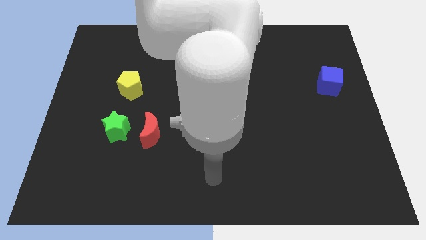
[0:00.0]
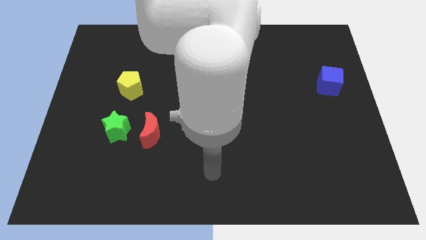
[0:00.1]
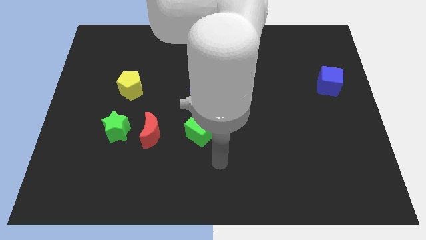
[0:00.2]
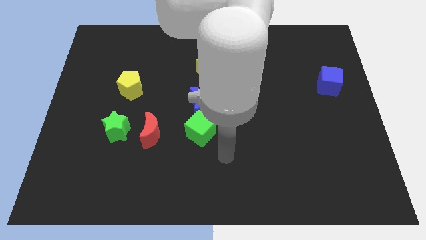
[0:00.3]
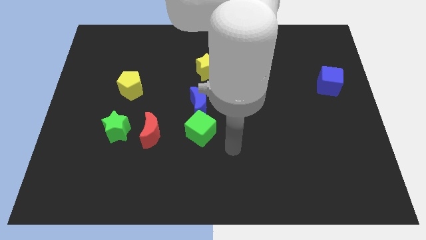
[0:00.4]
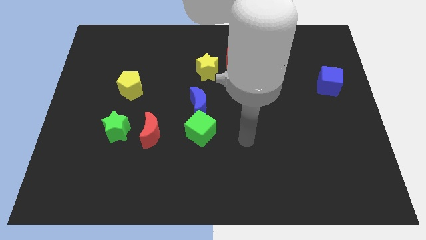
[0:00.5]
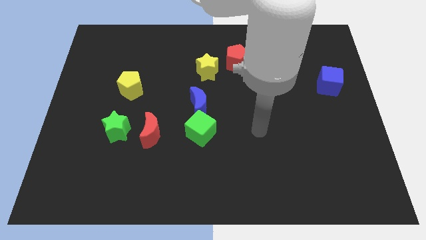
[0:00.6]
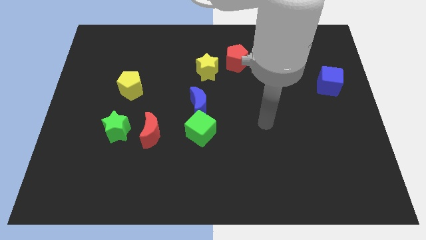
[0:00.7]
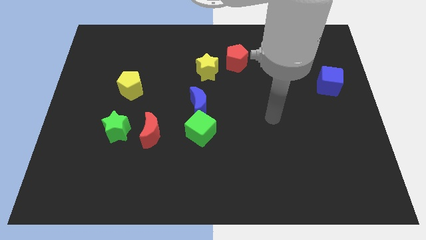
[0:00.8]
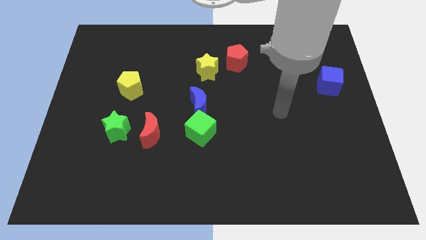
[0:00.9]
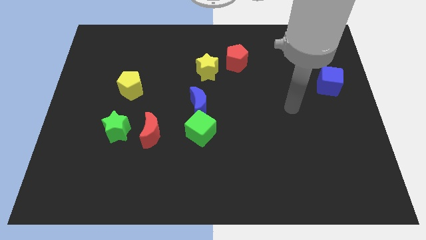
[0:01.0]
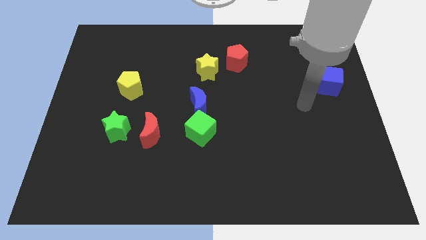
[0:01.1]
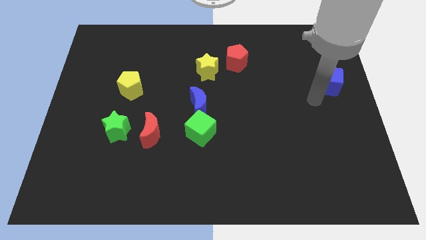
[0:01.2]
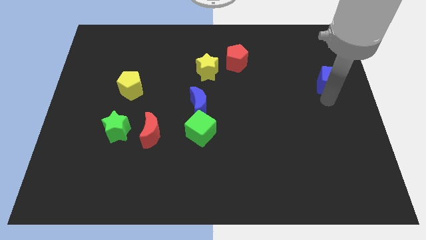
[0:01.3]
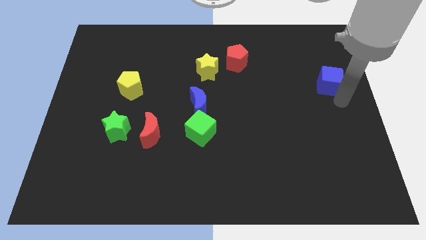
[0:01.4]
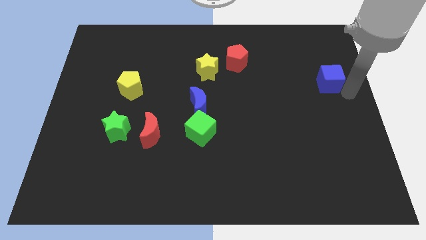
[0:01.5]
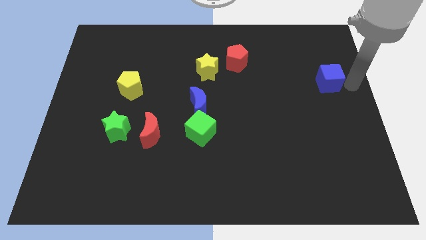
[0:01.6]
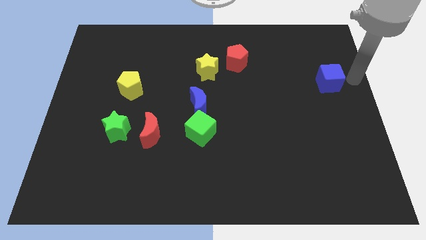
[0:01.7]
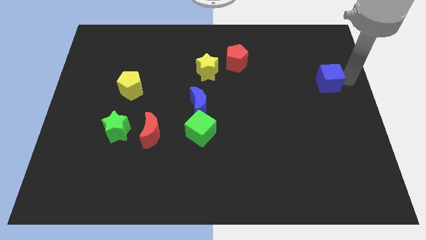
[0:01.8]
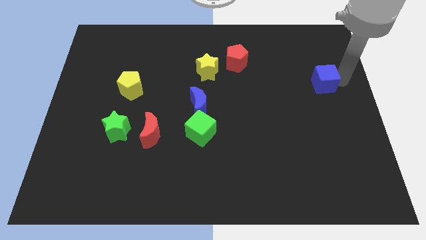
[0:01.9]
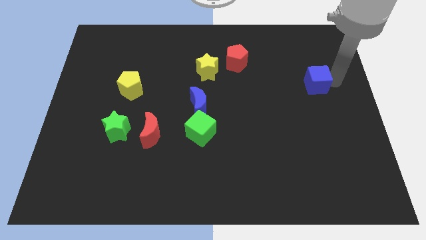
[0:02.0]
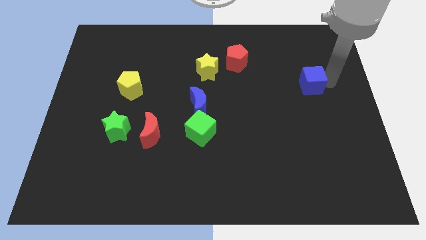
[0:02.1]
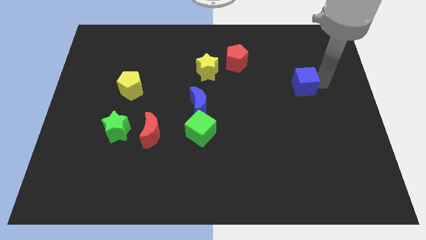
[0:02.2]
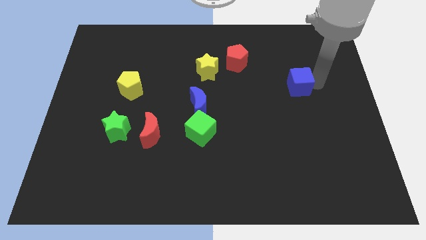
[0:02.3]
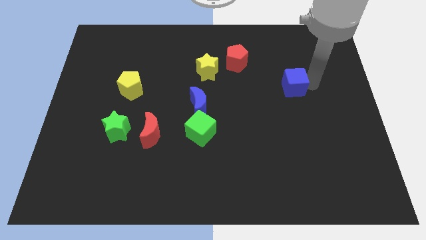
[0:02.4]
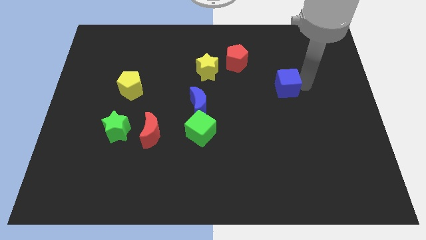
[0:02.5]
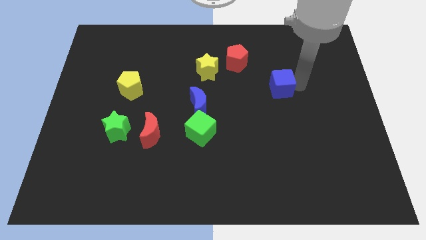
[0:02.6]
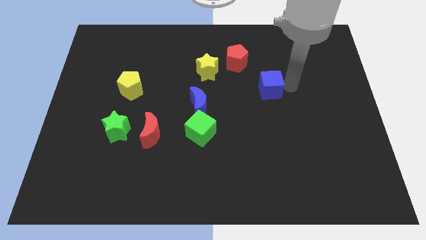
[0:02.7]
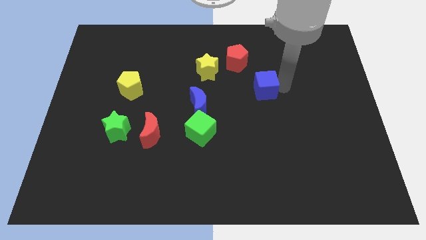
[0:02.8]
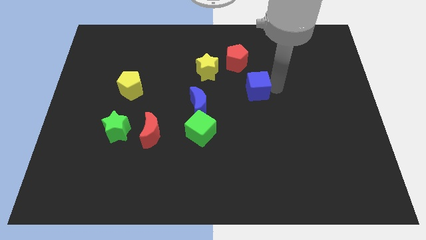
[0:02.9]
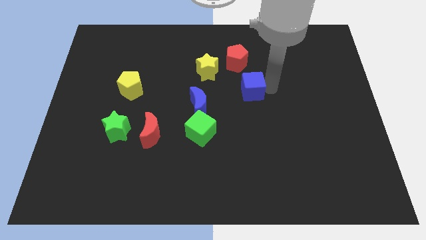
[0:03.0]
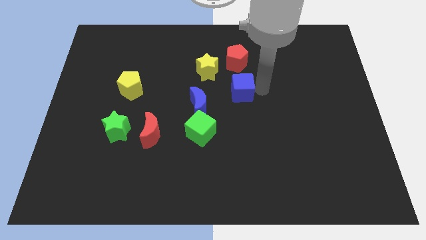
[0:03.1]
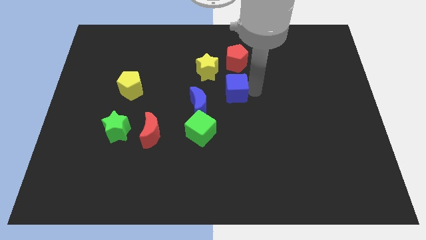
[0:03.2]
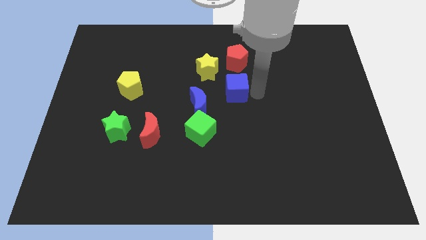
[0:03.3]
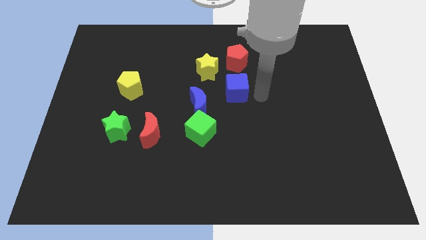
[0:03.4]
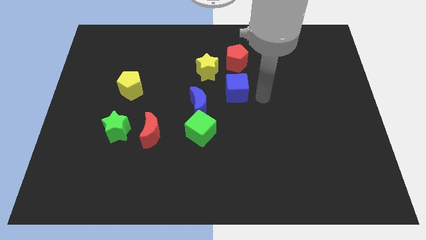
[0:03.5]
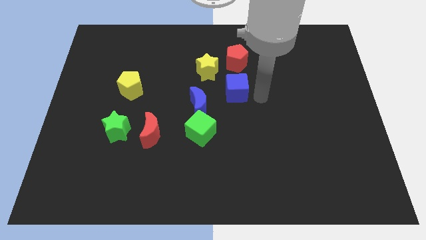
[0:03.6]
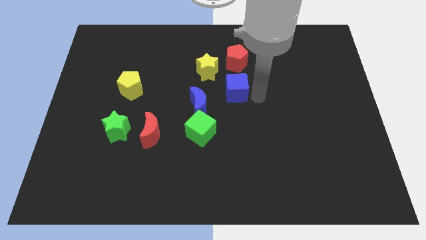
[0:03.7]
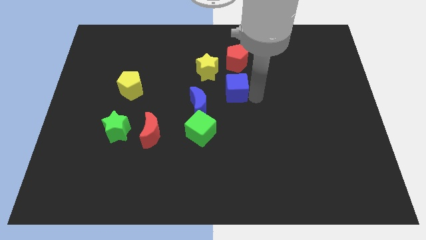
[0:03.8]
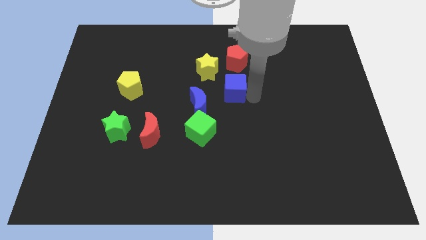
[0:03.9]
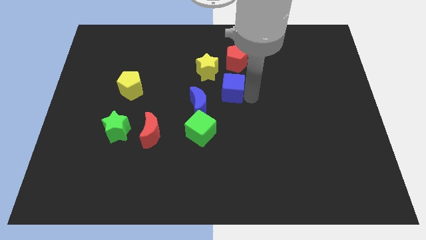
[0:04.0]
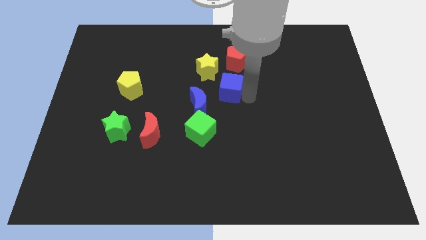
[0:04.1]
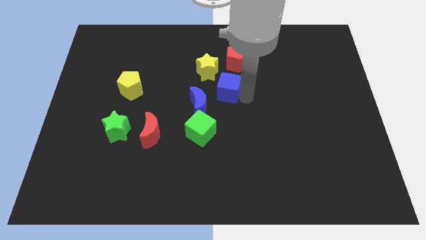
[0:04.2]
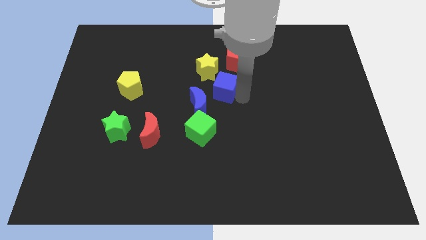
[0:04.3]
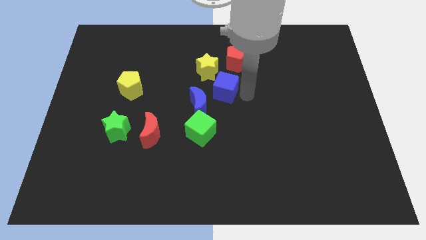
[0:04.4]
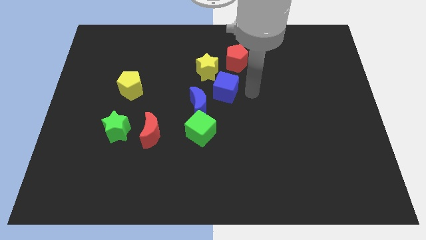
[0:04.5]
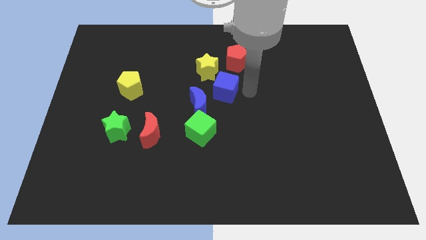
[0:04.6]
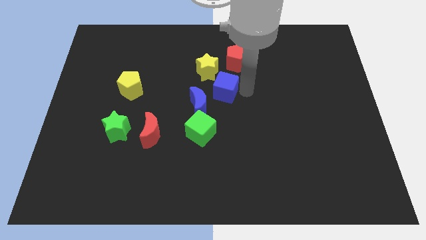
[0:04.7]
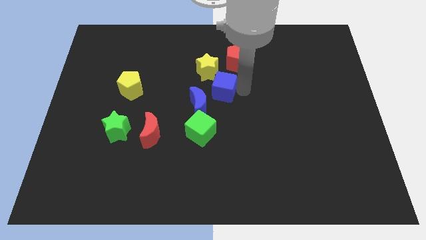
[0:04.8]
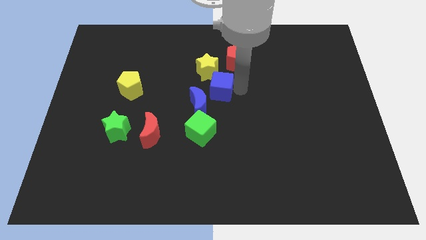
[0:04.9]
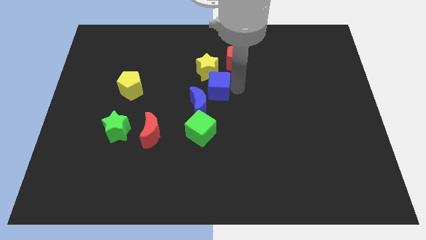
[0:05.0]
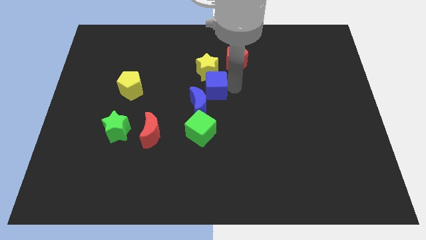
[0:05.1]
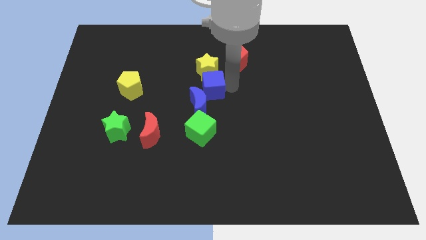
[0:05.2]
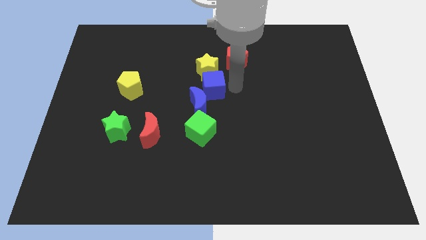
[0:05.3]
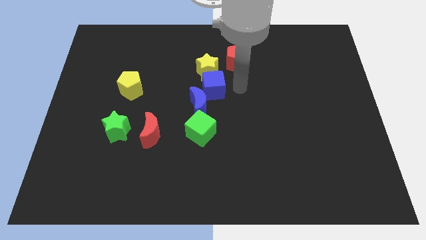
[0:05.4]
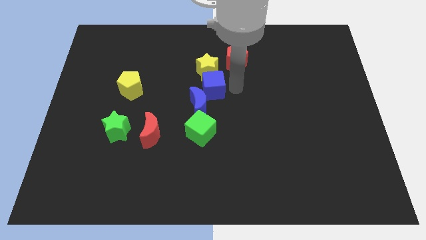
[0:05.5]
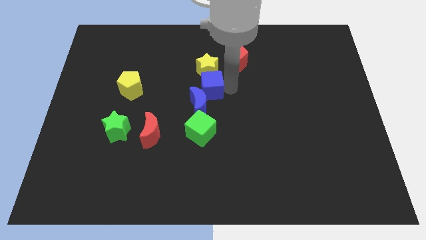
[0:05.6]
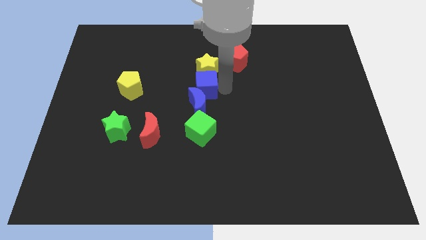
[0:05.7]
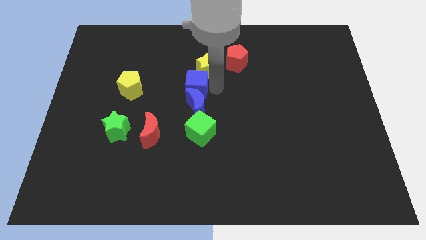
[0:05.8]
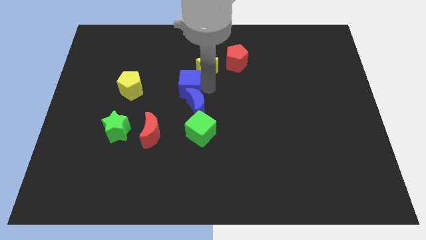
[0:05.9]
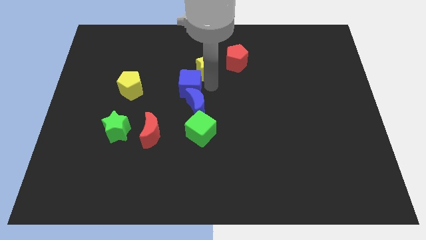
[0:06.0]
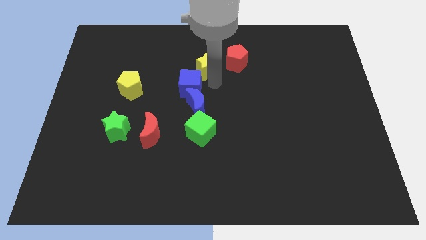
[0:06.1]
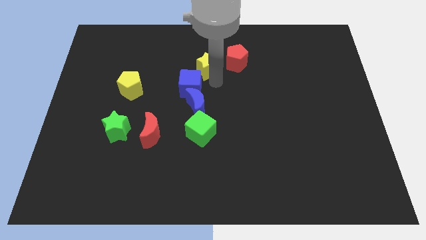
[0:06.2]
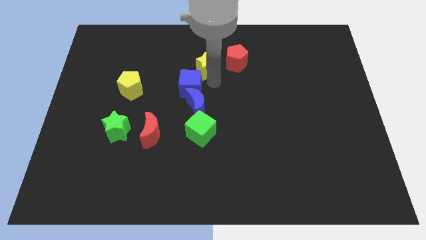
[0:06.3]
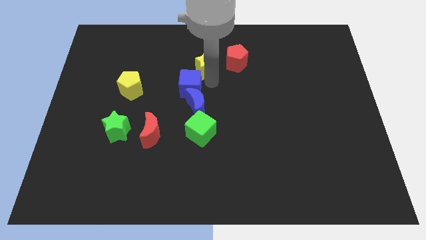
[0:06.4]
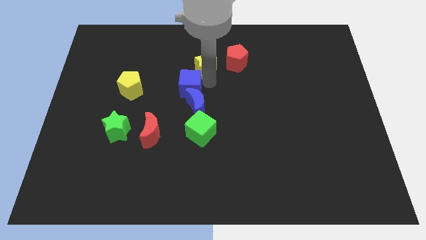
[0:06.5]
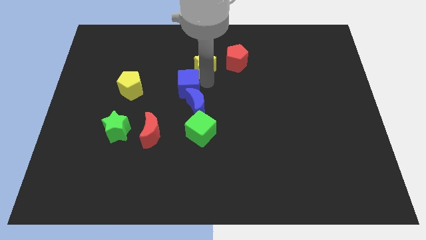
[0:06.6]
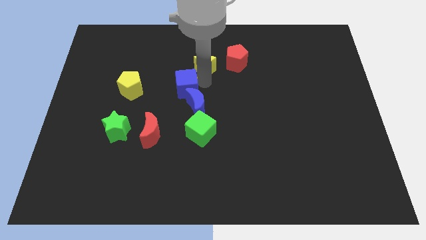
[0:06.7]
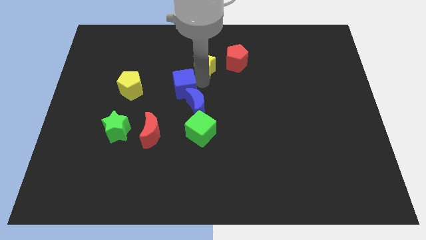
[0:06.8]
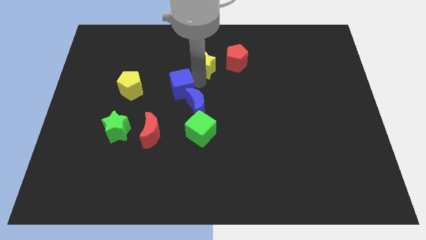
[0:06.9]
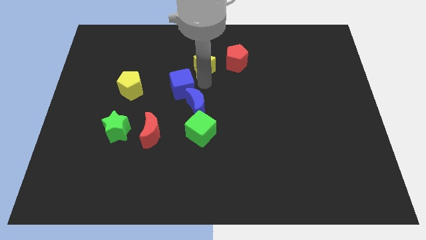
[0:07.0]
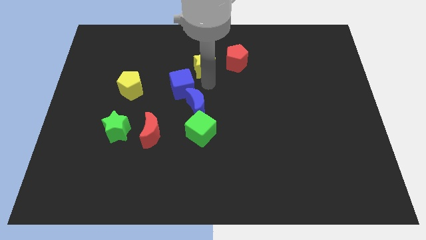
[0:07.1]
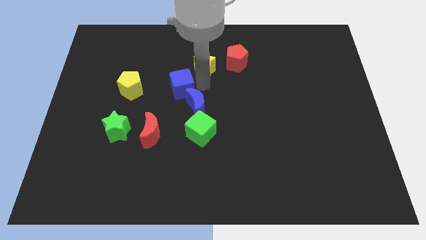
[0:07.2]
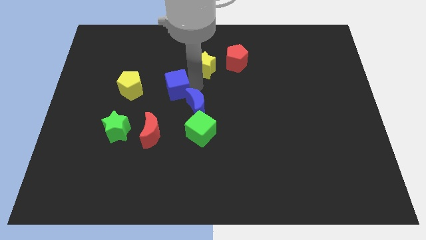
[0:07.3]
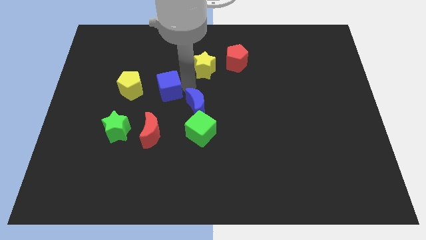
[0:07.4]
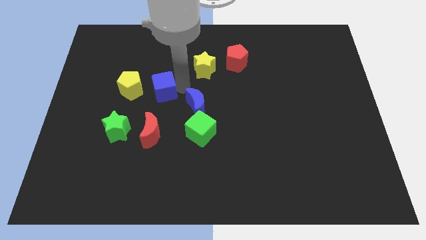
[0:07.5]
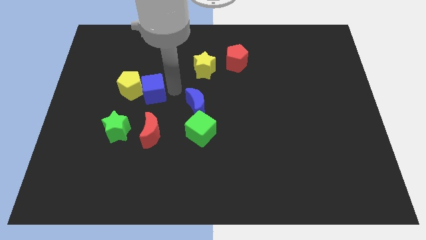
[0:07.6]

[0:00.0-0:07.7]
put the blue cube to the yellow pentagon
